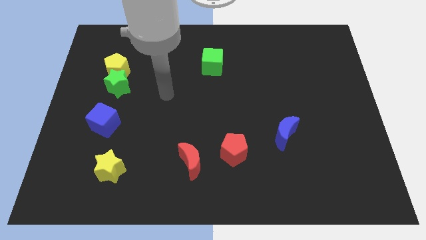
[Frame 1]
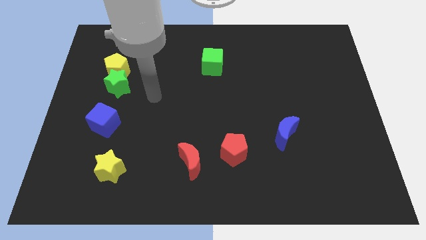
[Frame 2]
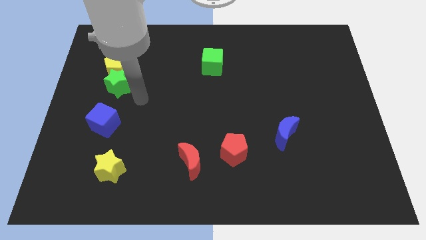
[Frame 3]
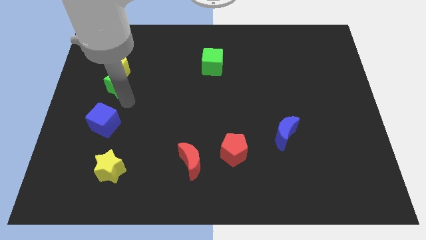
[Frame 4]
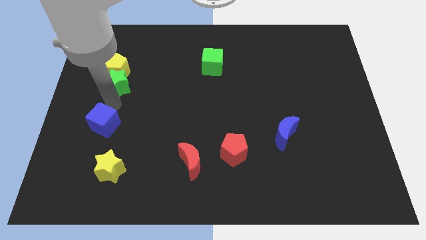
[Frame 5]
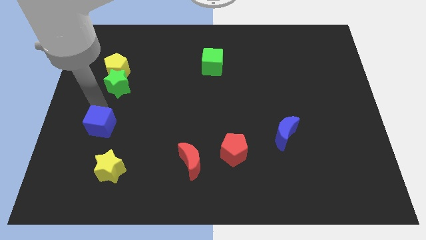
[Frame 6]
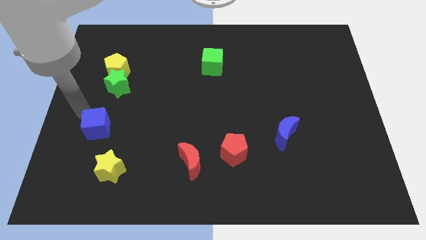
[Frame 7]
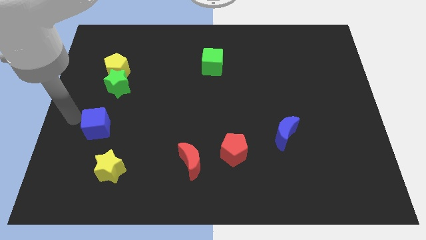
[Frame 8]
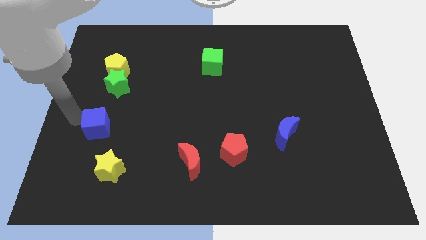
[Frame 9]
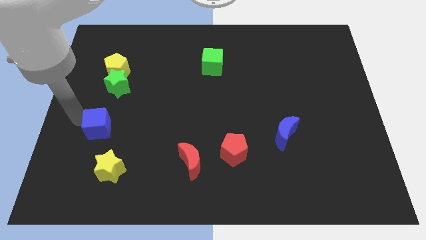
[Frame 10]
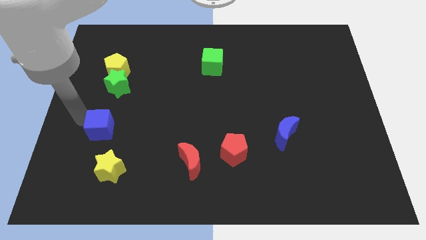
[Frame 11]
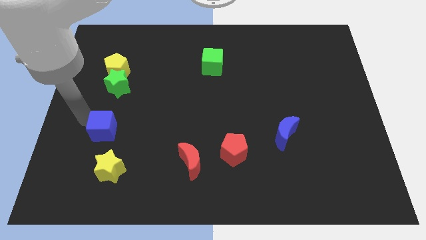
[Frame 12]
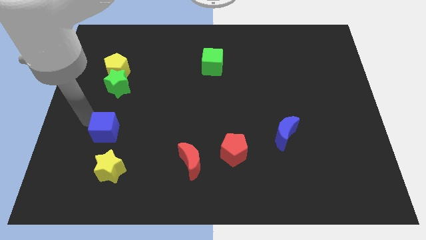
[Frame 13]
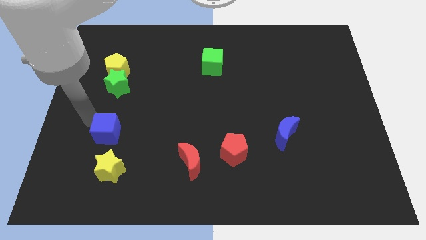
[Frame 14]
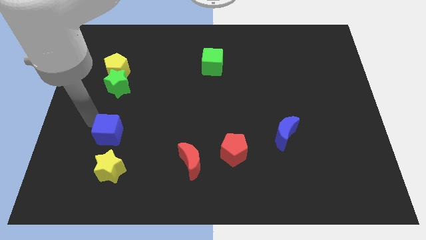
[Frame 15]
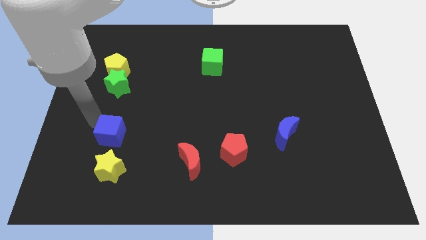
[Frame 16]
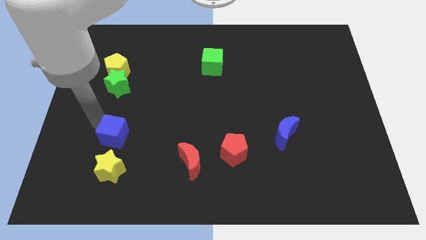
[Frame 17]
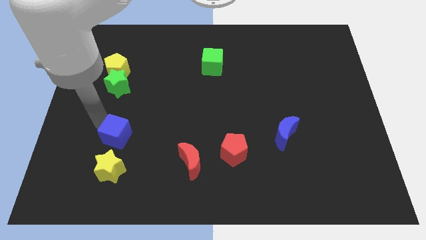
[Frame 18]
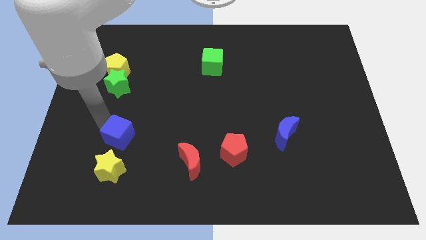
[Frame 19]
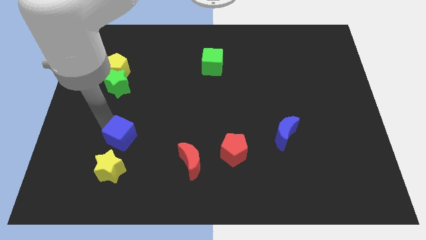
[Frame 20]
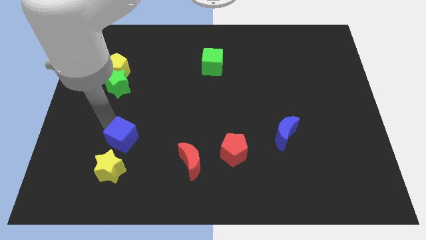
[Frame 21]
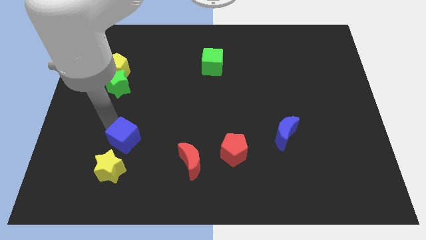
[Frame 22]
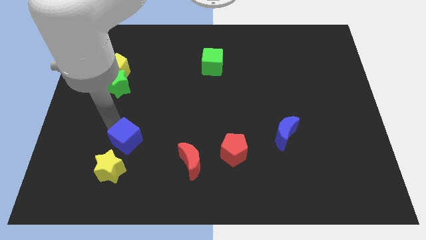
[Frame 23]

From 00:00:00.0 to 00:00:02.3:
push the blue cube downwards and right somewhat

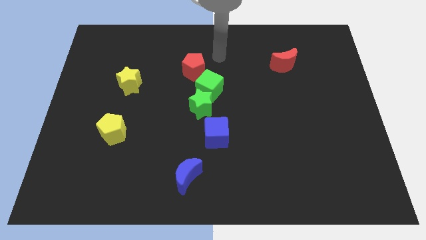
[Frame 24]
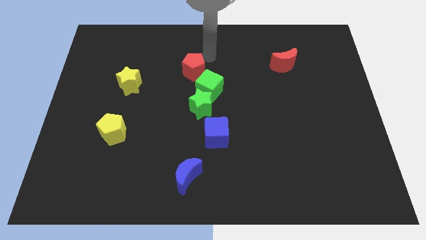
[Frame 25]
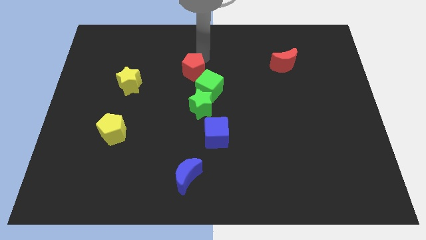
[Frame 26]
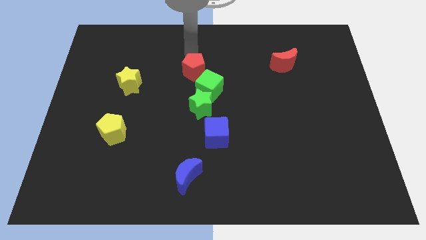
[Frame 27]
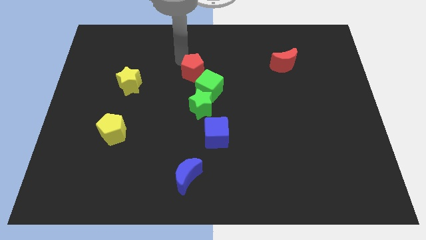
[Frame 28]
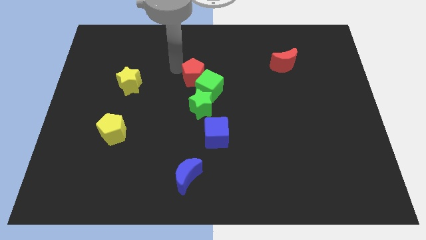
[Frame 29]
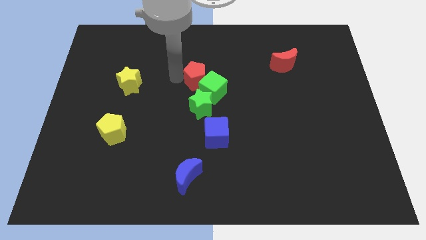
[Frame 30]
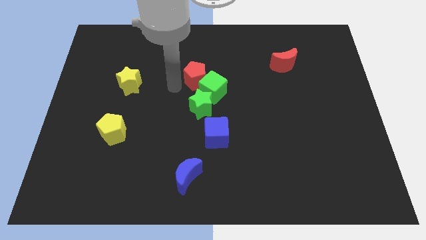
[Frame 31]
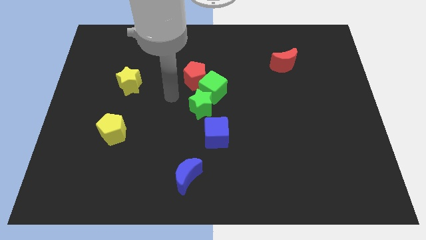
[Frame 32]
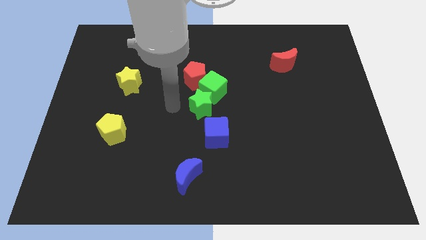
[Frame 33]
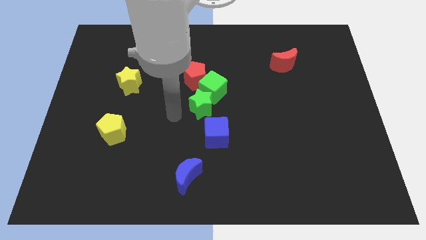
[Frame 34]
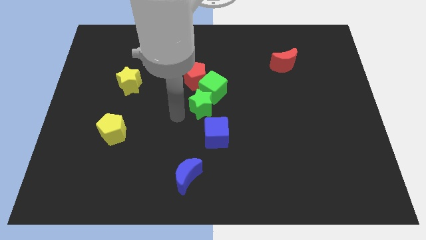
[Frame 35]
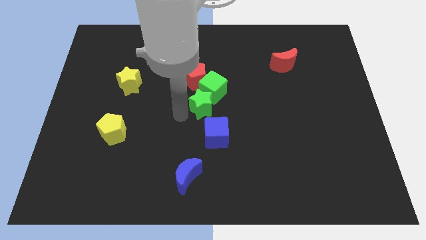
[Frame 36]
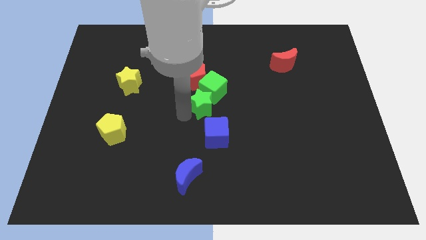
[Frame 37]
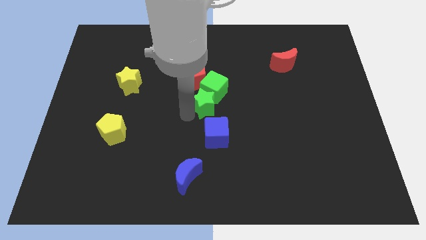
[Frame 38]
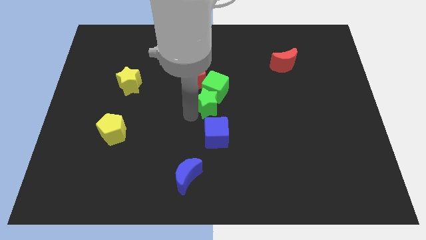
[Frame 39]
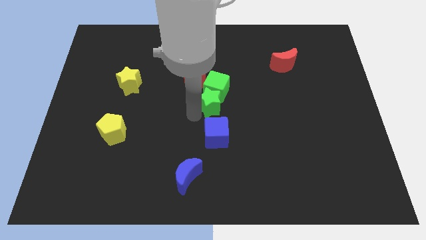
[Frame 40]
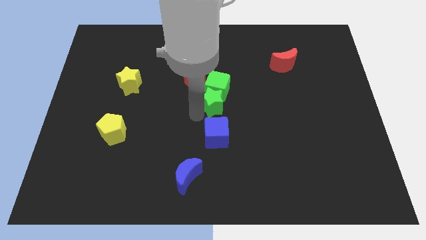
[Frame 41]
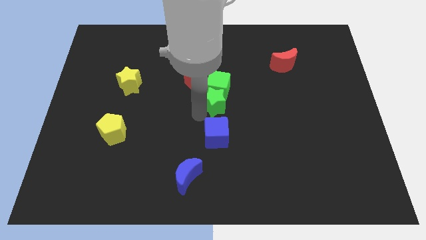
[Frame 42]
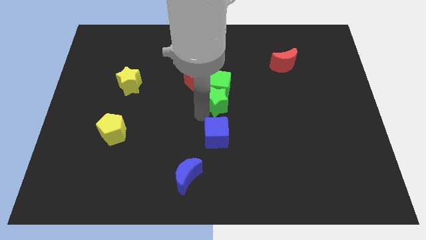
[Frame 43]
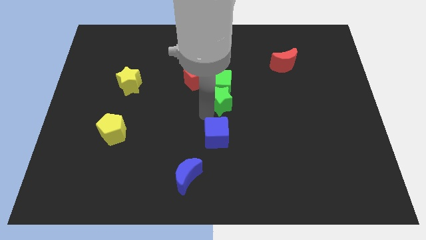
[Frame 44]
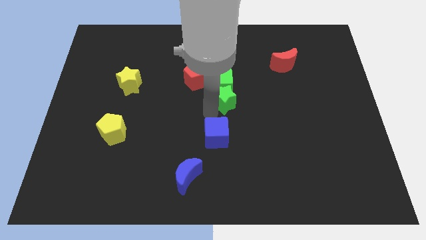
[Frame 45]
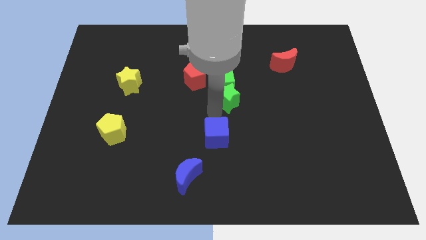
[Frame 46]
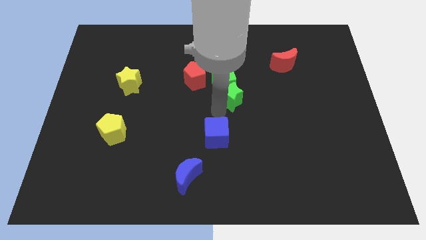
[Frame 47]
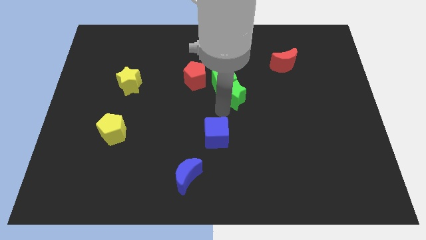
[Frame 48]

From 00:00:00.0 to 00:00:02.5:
push the green star up and to the right slightly

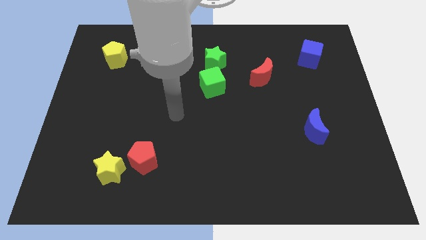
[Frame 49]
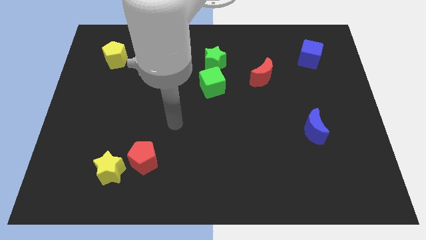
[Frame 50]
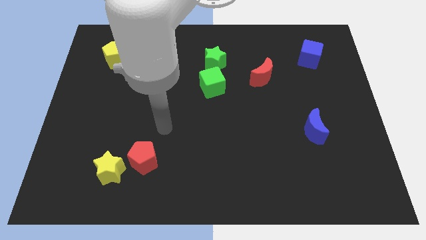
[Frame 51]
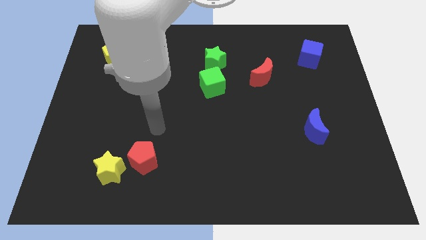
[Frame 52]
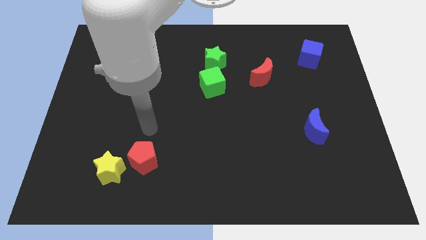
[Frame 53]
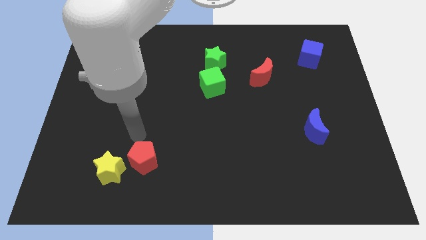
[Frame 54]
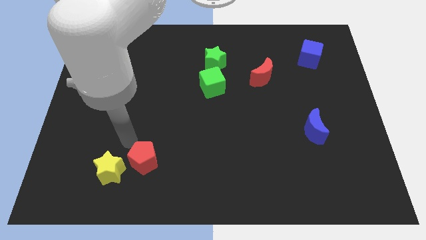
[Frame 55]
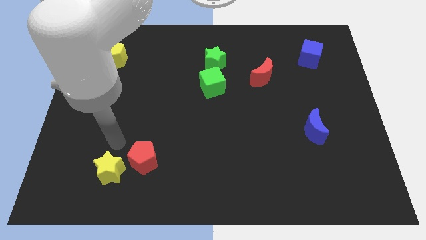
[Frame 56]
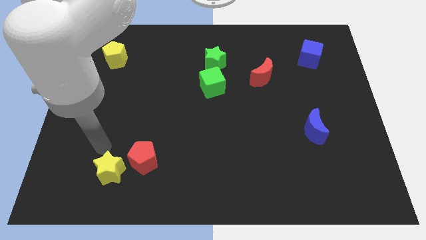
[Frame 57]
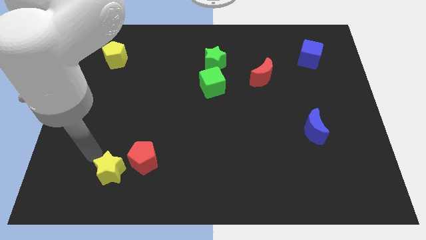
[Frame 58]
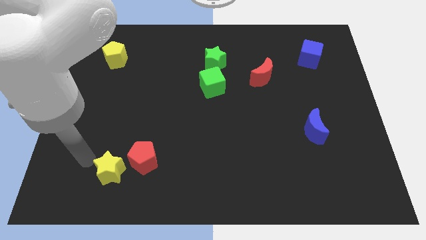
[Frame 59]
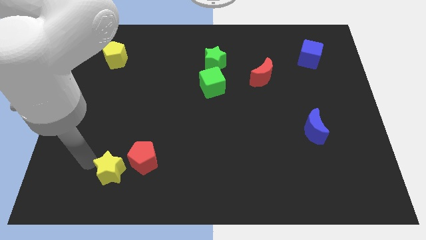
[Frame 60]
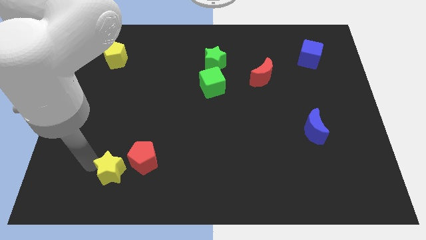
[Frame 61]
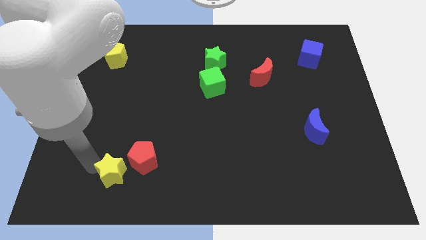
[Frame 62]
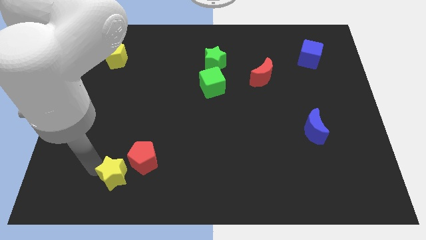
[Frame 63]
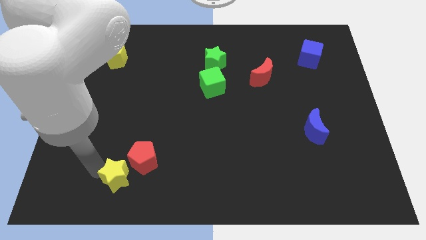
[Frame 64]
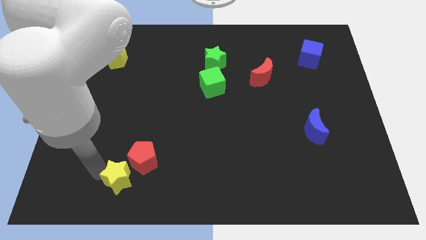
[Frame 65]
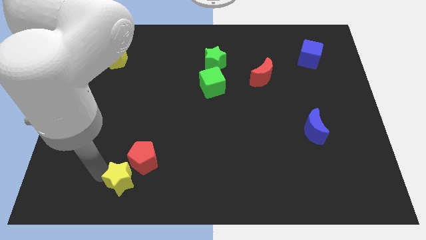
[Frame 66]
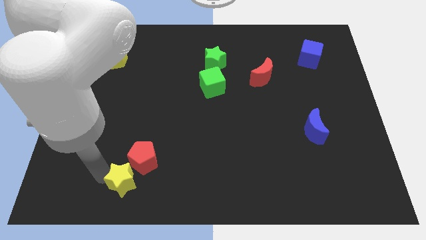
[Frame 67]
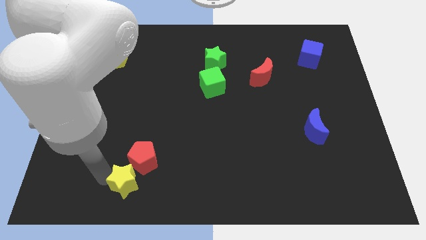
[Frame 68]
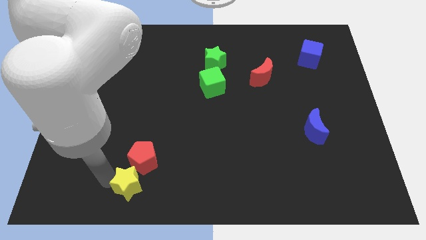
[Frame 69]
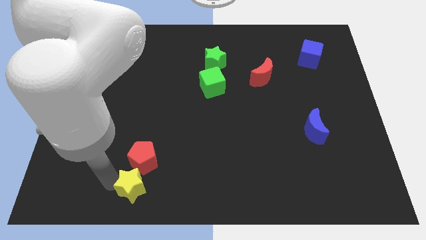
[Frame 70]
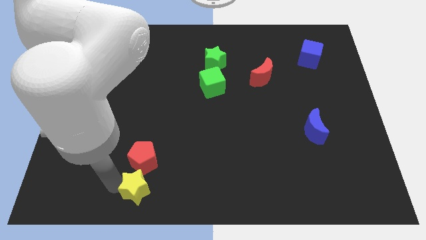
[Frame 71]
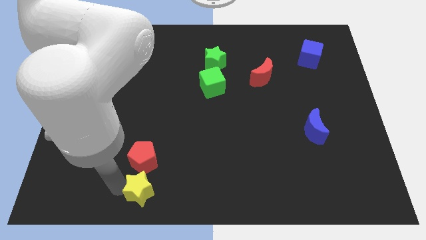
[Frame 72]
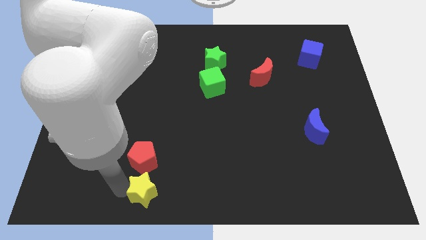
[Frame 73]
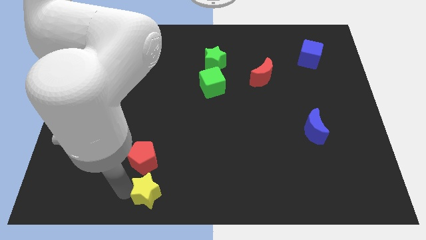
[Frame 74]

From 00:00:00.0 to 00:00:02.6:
slide the yellow star somewhat to the right

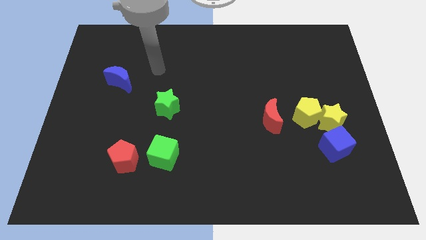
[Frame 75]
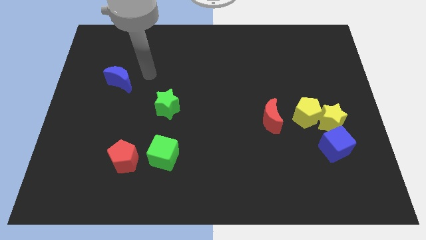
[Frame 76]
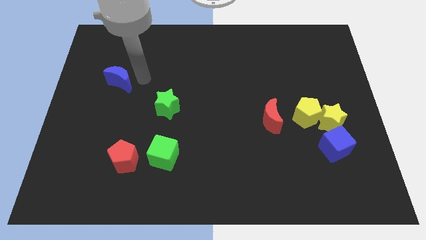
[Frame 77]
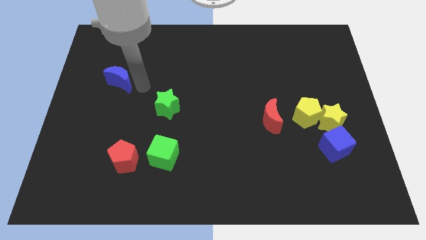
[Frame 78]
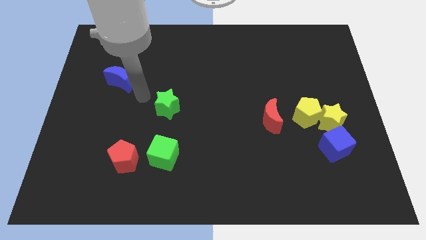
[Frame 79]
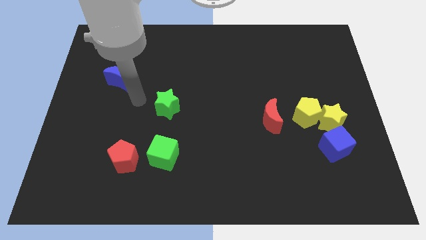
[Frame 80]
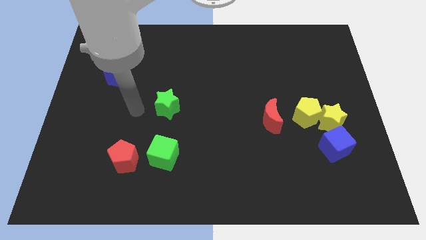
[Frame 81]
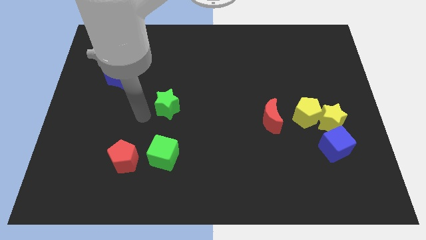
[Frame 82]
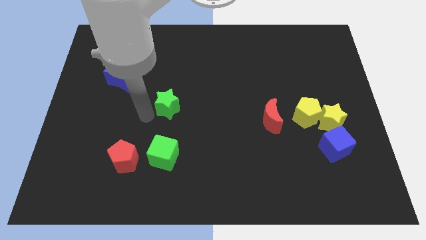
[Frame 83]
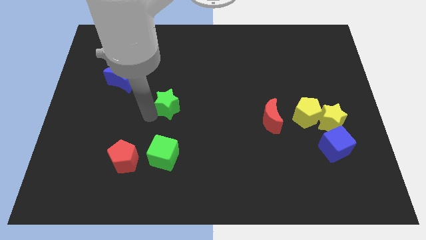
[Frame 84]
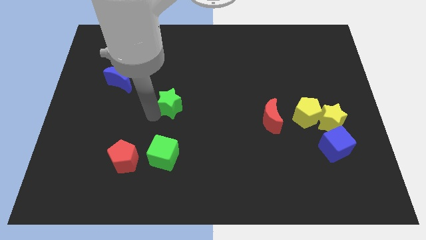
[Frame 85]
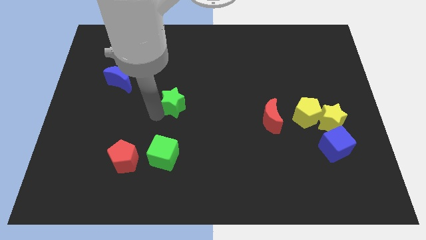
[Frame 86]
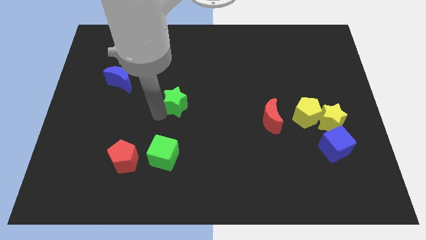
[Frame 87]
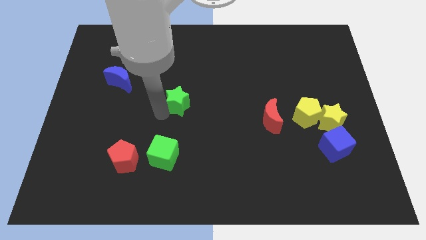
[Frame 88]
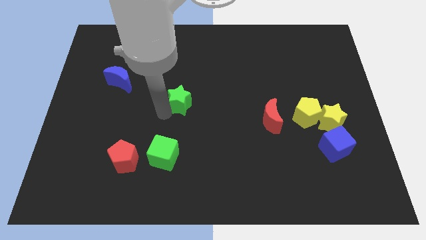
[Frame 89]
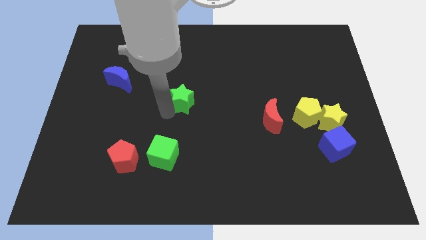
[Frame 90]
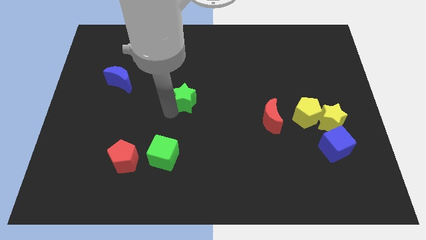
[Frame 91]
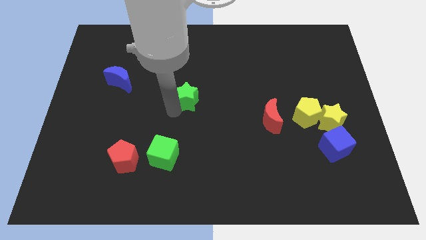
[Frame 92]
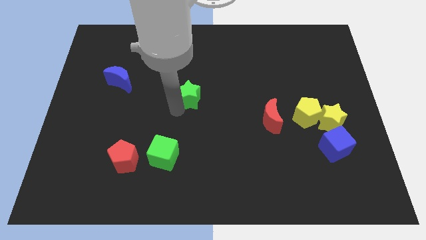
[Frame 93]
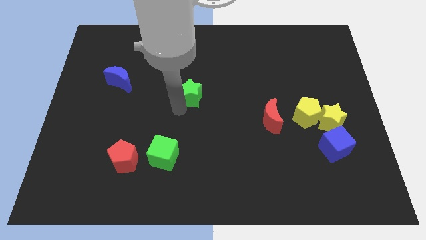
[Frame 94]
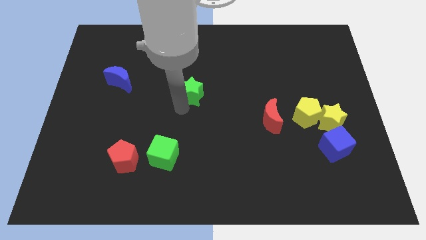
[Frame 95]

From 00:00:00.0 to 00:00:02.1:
slightly move the green star up and right diagonally
